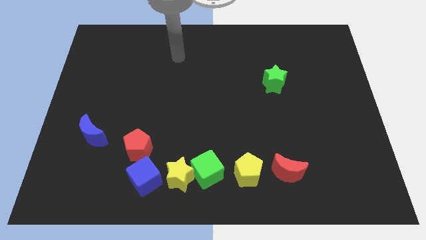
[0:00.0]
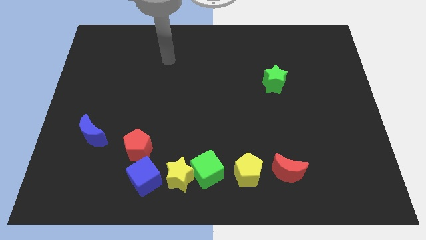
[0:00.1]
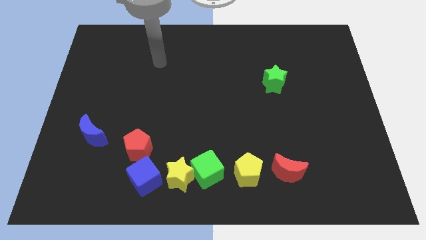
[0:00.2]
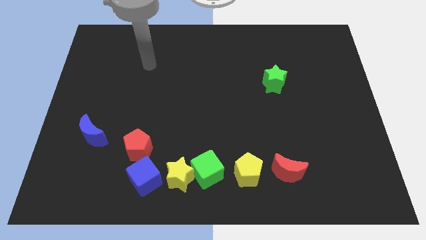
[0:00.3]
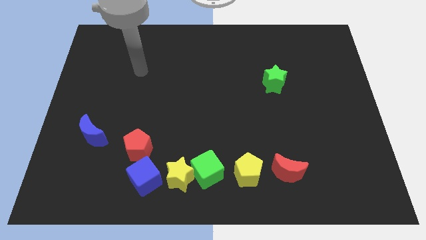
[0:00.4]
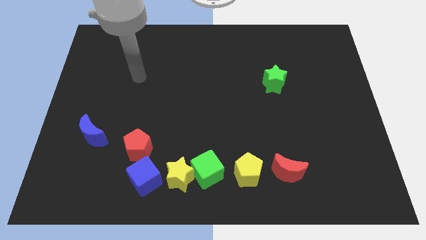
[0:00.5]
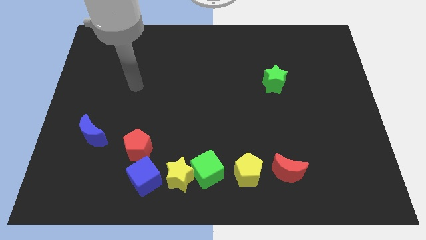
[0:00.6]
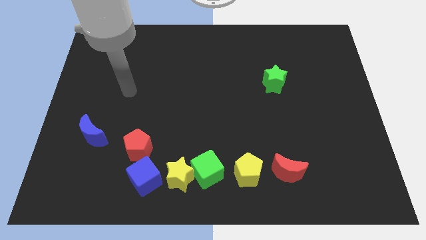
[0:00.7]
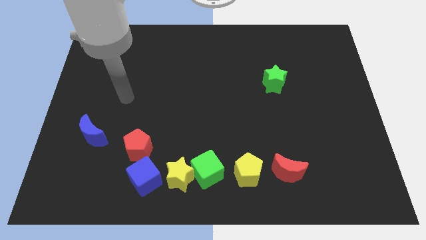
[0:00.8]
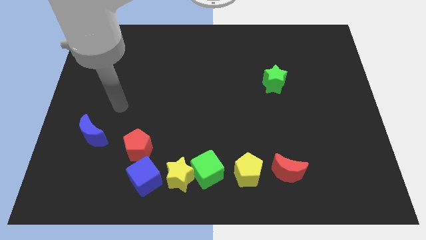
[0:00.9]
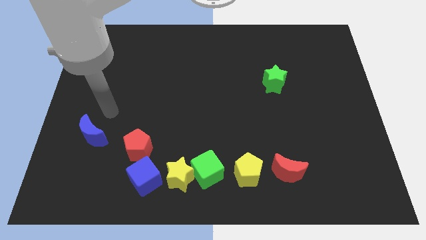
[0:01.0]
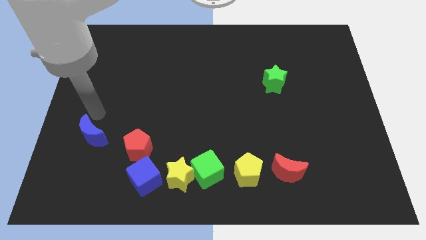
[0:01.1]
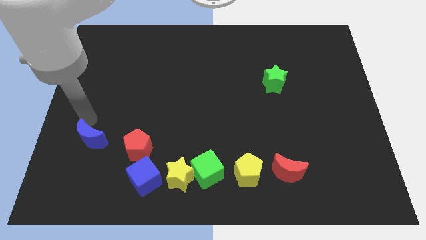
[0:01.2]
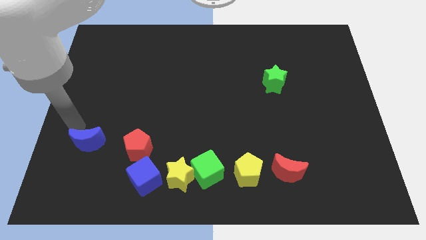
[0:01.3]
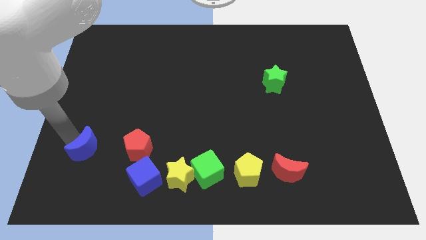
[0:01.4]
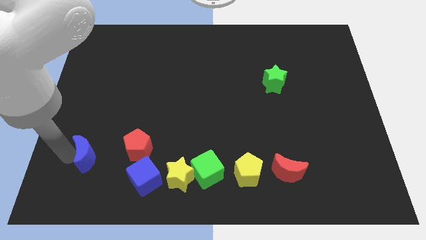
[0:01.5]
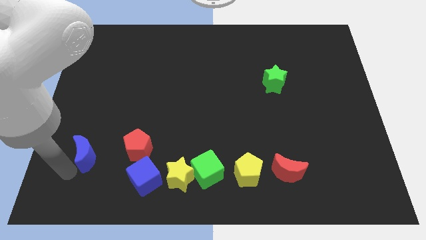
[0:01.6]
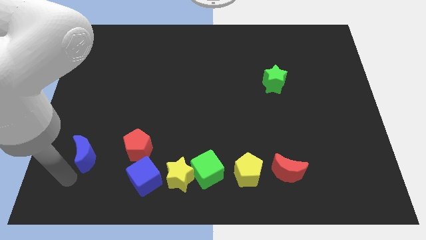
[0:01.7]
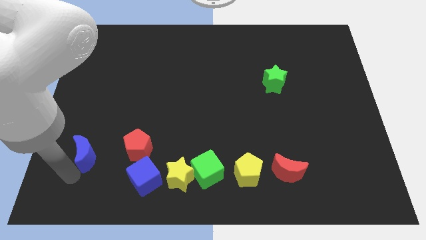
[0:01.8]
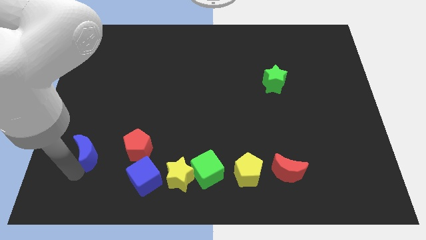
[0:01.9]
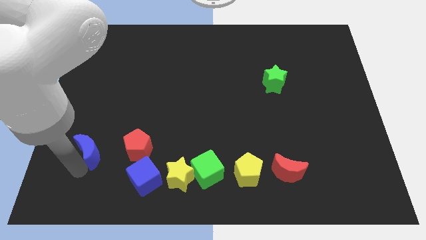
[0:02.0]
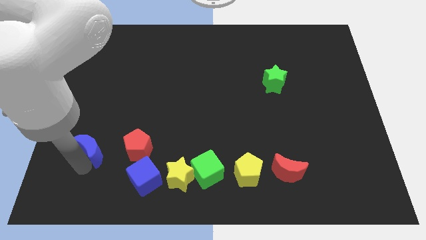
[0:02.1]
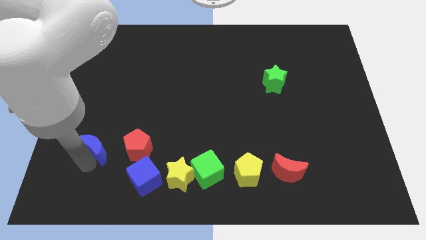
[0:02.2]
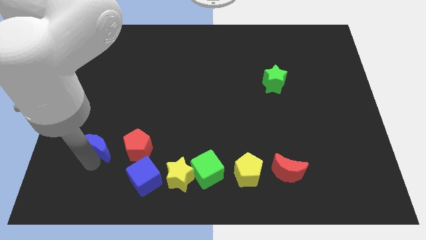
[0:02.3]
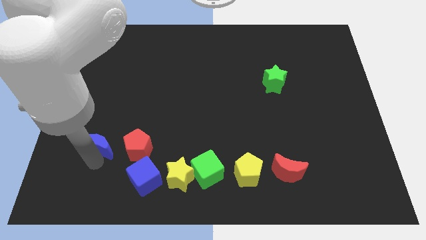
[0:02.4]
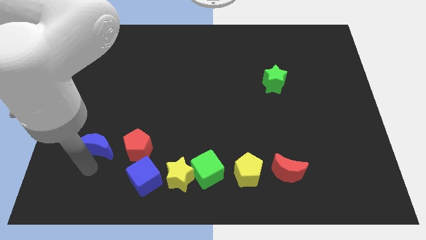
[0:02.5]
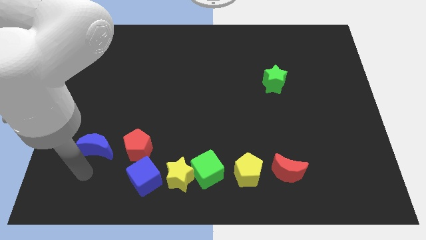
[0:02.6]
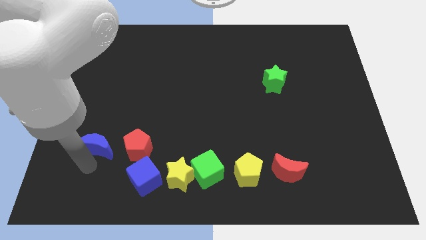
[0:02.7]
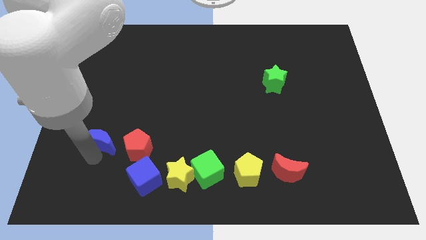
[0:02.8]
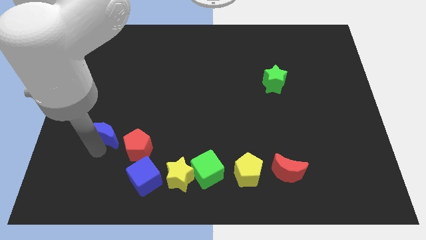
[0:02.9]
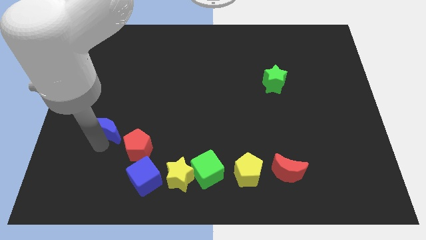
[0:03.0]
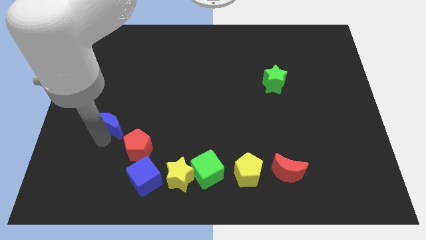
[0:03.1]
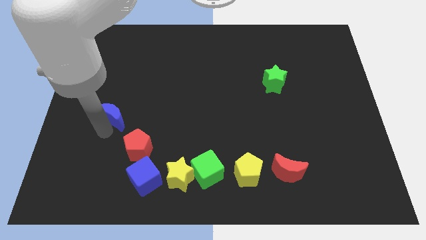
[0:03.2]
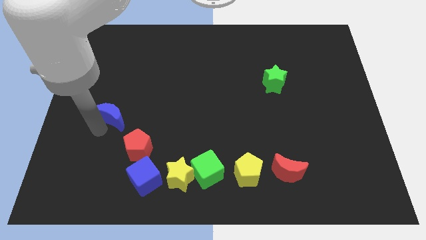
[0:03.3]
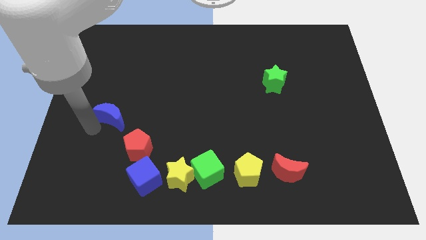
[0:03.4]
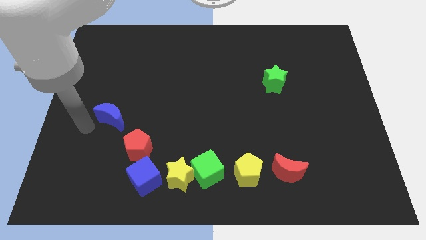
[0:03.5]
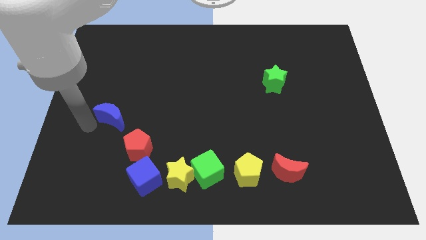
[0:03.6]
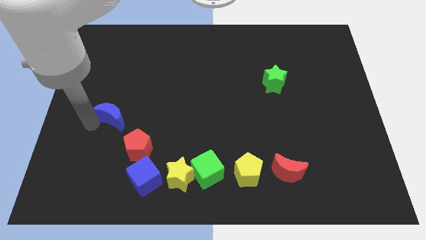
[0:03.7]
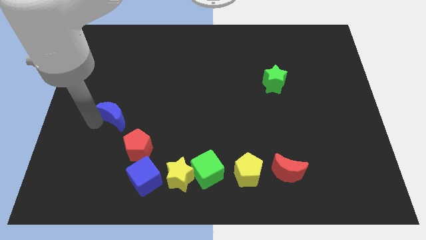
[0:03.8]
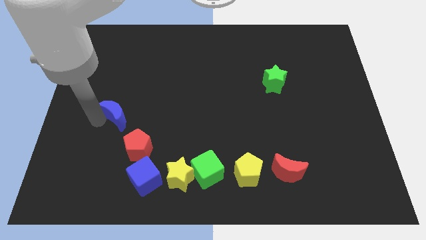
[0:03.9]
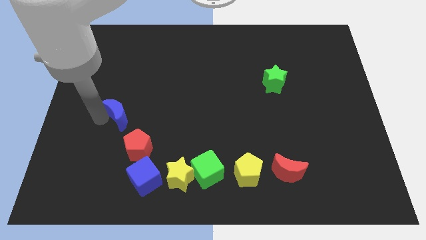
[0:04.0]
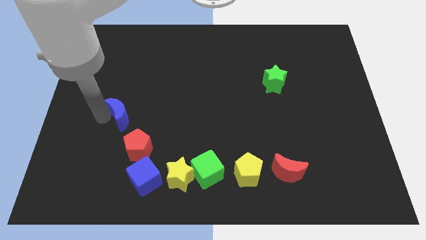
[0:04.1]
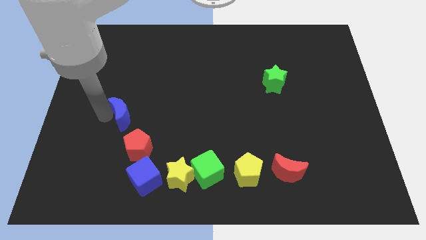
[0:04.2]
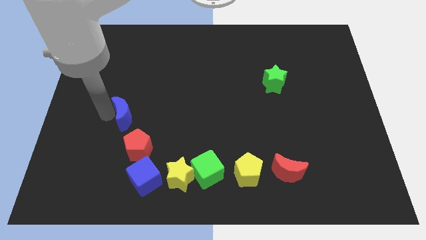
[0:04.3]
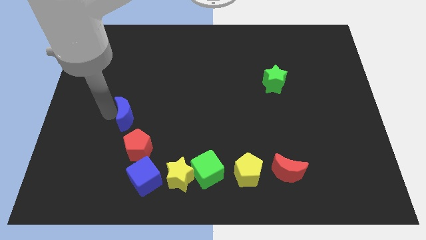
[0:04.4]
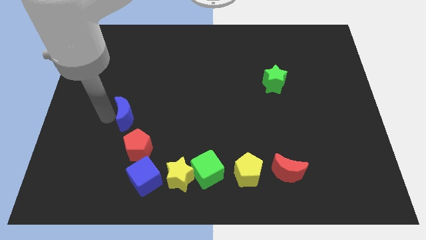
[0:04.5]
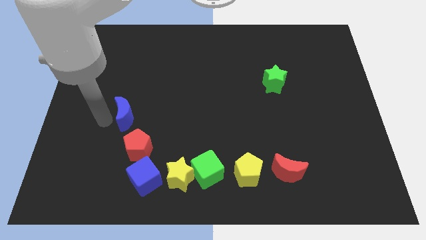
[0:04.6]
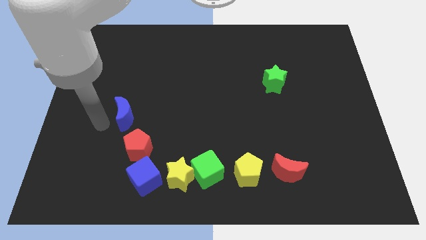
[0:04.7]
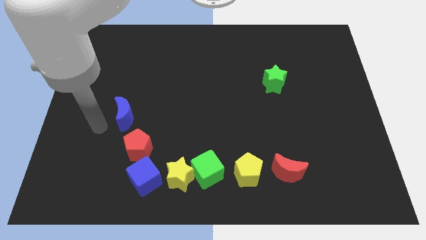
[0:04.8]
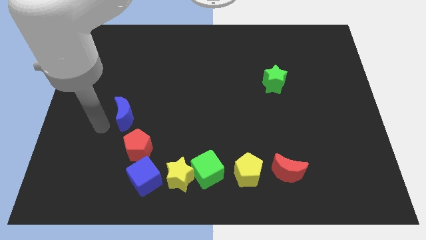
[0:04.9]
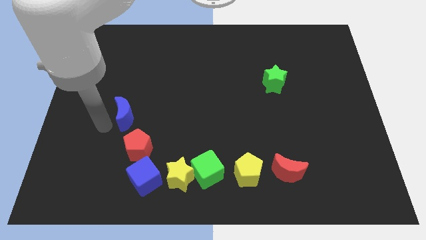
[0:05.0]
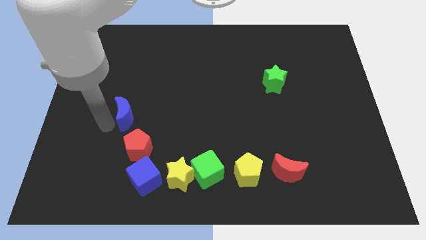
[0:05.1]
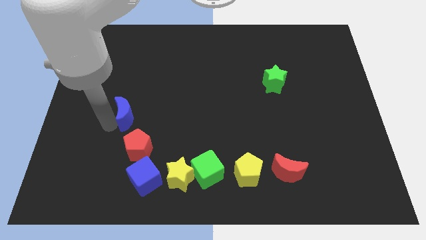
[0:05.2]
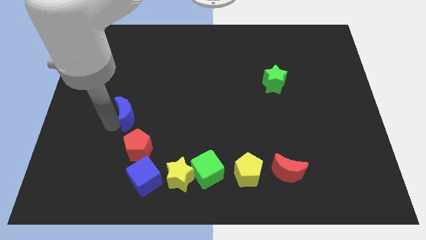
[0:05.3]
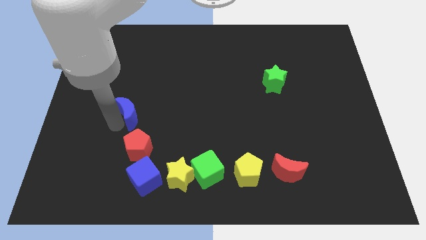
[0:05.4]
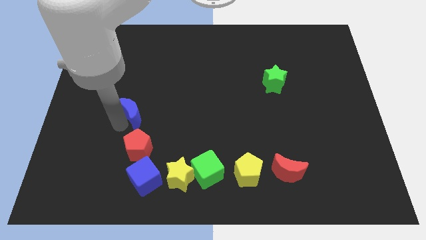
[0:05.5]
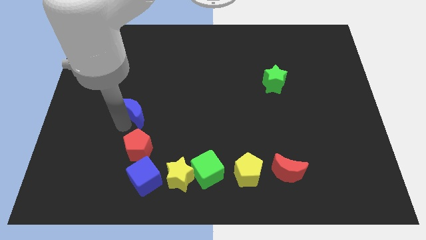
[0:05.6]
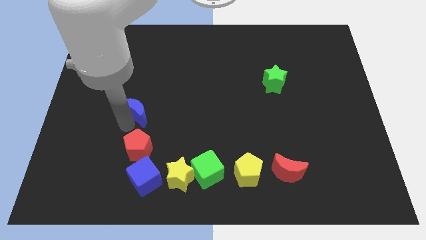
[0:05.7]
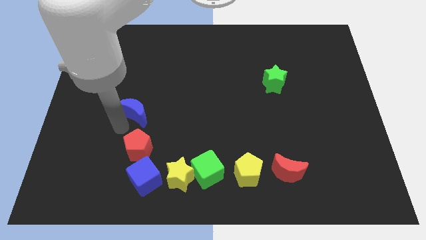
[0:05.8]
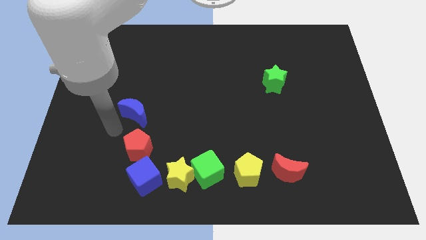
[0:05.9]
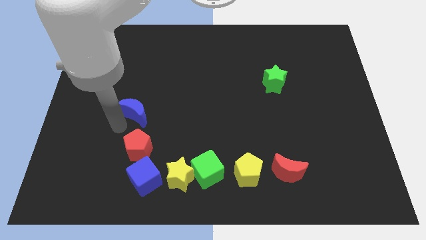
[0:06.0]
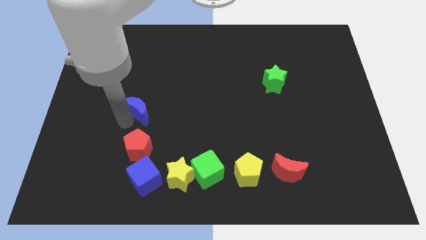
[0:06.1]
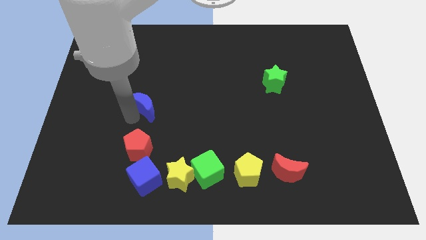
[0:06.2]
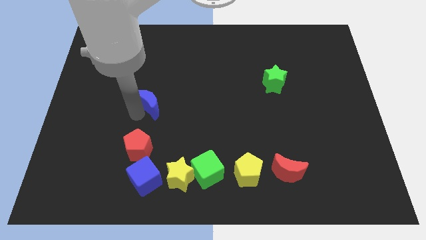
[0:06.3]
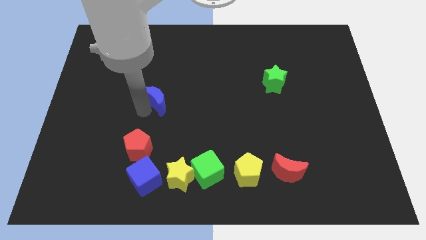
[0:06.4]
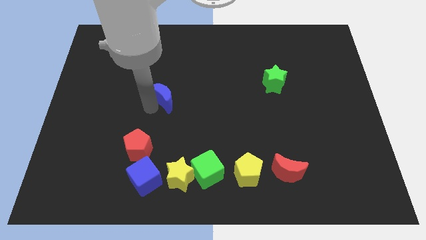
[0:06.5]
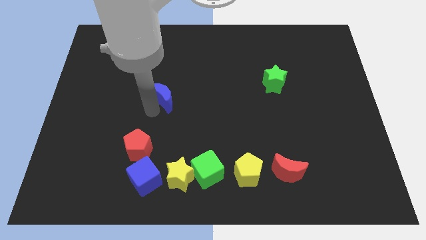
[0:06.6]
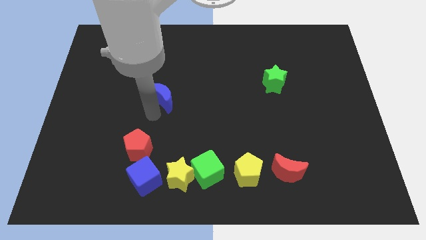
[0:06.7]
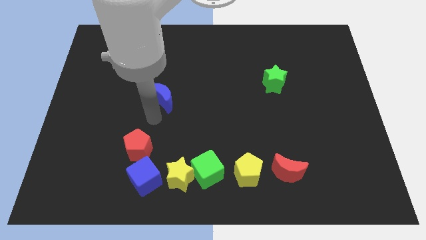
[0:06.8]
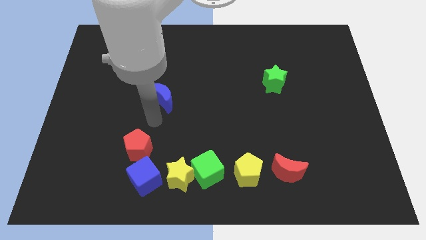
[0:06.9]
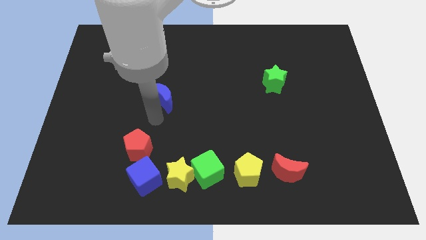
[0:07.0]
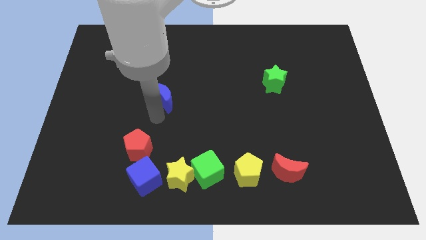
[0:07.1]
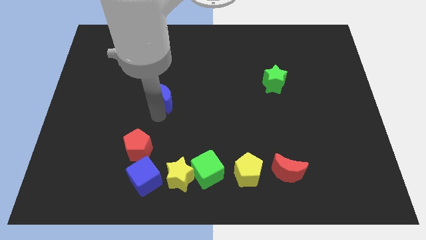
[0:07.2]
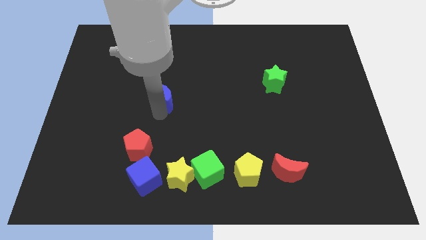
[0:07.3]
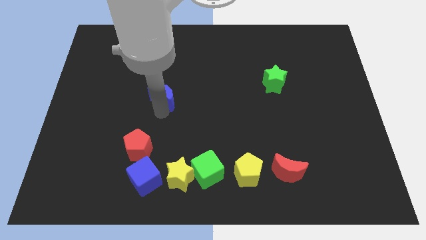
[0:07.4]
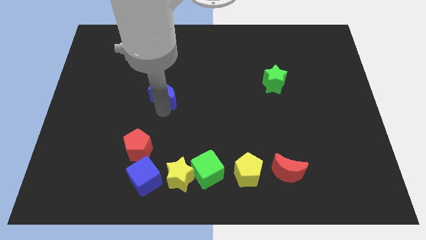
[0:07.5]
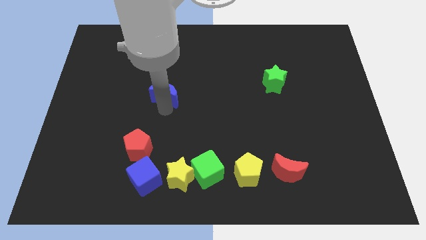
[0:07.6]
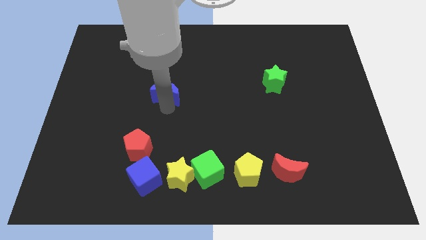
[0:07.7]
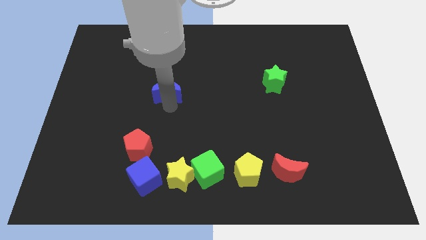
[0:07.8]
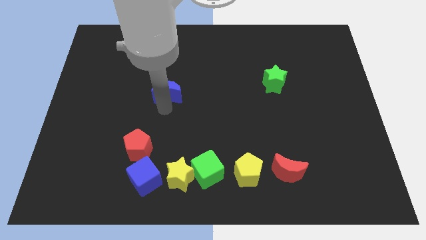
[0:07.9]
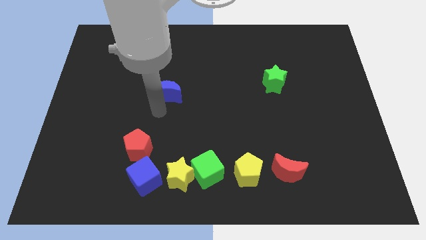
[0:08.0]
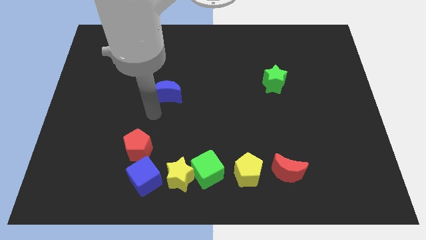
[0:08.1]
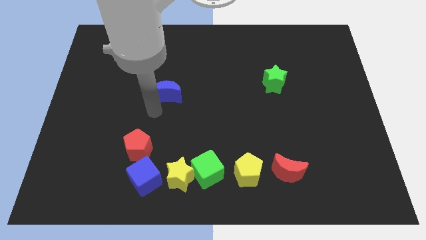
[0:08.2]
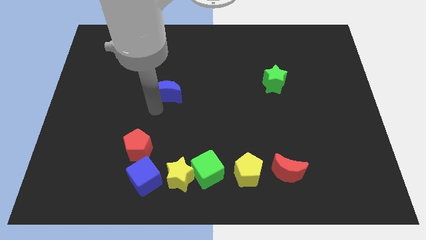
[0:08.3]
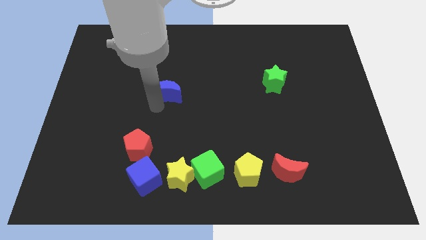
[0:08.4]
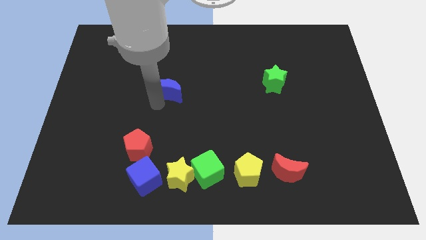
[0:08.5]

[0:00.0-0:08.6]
move the blue moon up and to the right
